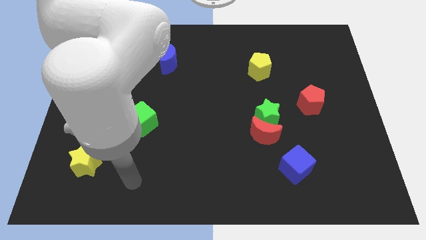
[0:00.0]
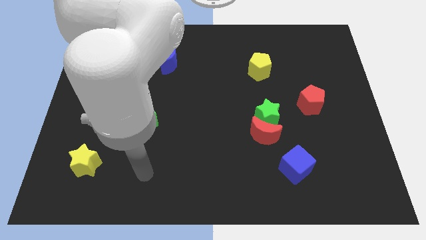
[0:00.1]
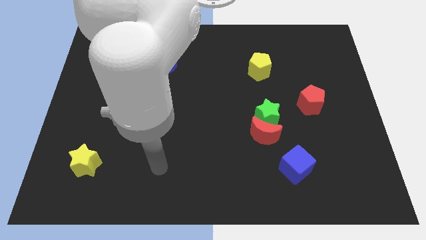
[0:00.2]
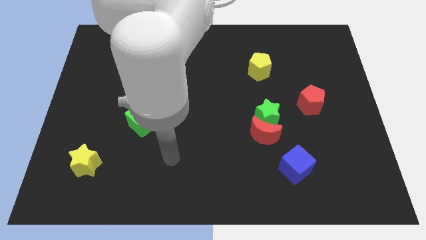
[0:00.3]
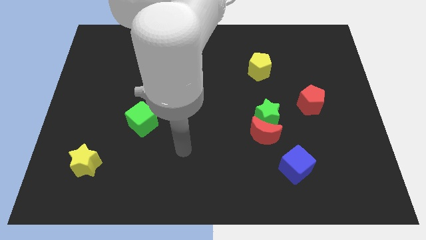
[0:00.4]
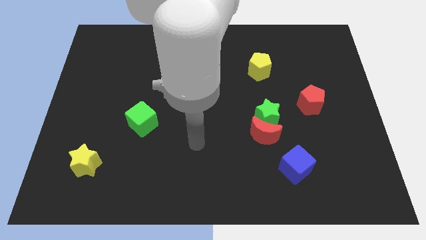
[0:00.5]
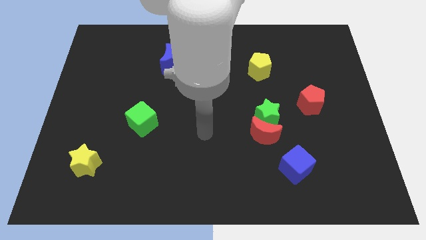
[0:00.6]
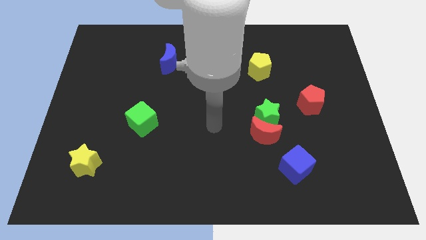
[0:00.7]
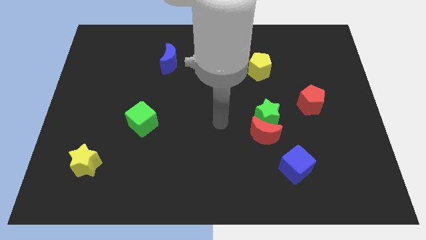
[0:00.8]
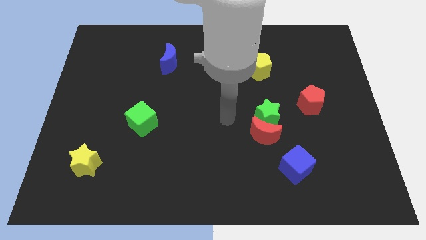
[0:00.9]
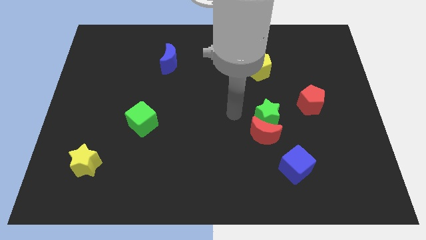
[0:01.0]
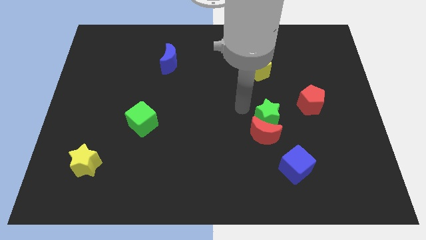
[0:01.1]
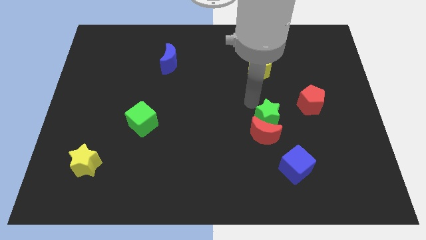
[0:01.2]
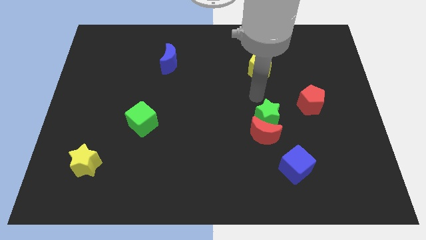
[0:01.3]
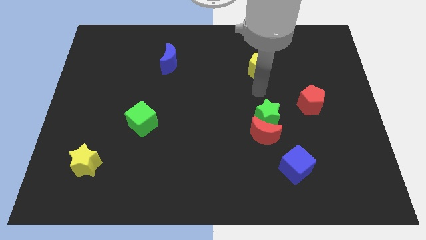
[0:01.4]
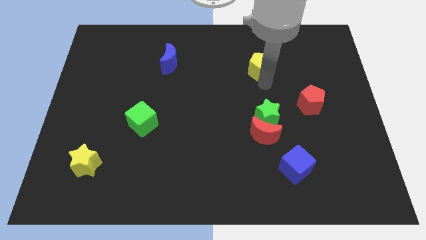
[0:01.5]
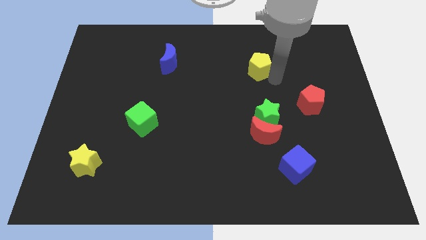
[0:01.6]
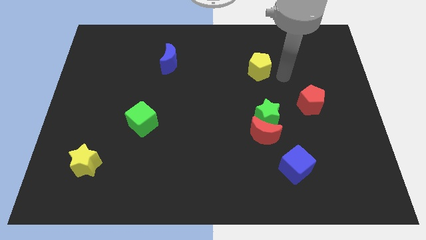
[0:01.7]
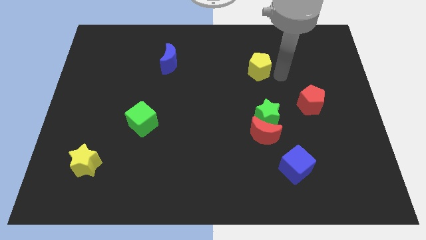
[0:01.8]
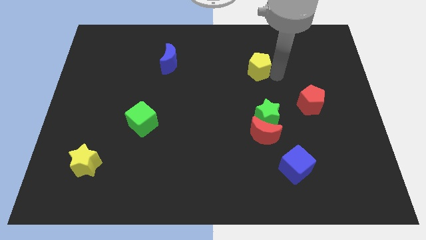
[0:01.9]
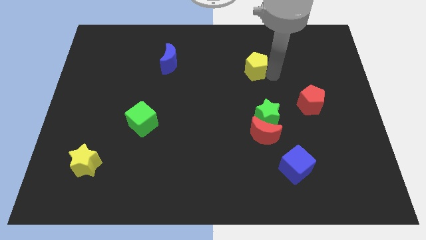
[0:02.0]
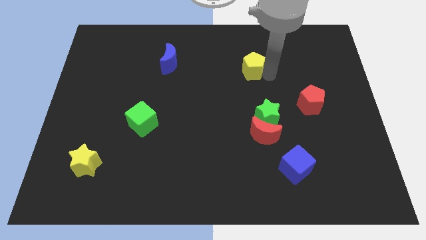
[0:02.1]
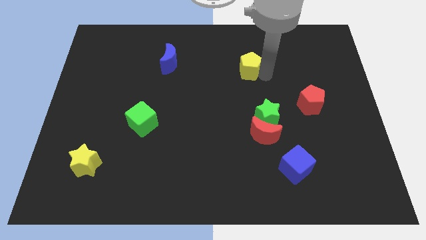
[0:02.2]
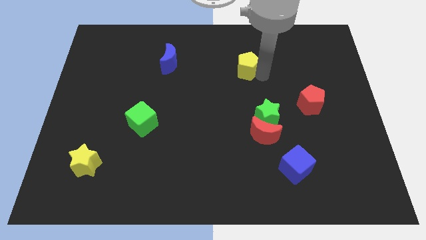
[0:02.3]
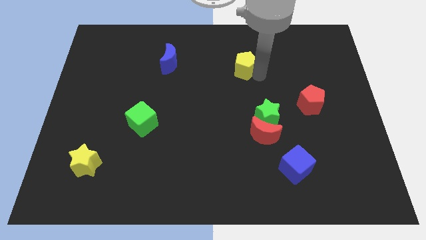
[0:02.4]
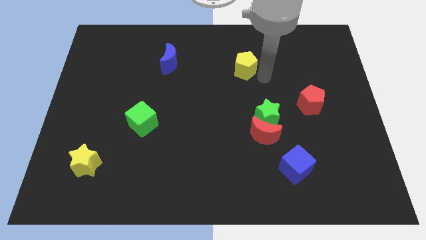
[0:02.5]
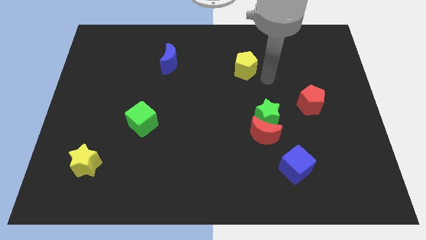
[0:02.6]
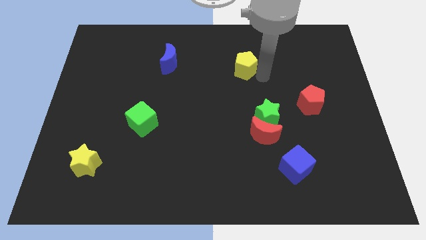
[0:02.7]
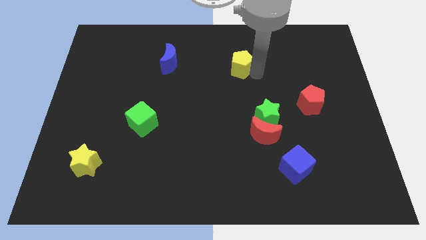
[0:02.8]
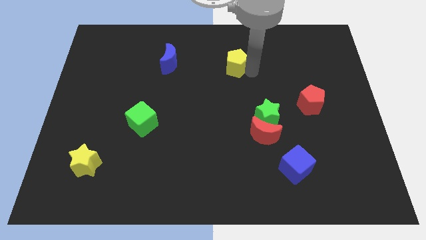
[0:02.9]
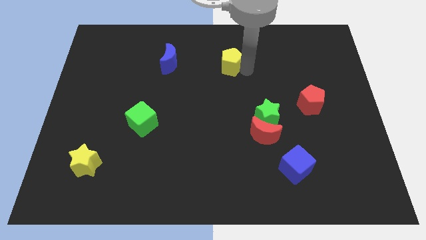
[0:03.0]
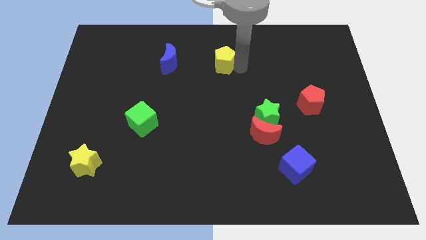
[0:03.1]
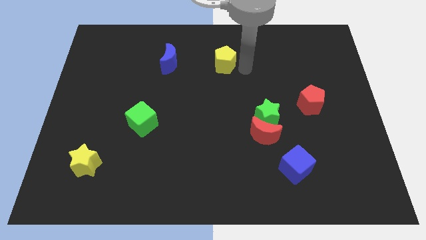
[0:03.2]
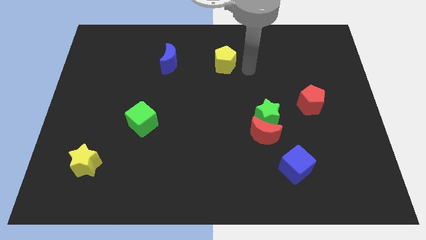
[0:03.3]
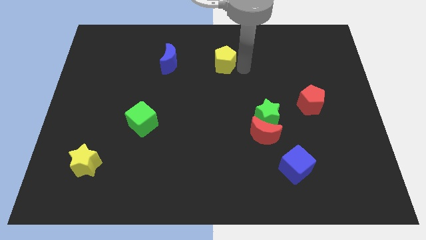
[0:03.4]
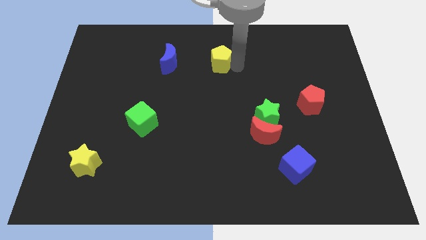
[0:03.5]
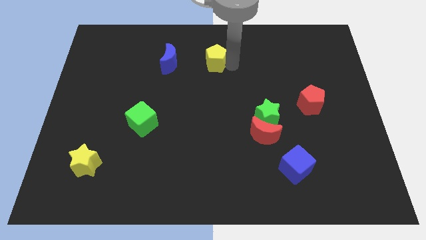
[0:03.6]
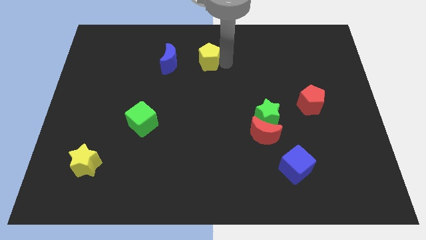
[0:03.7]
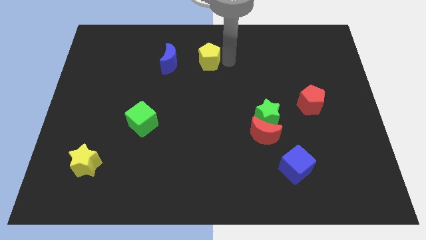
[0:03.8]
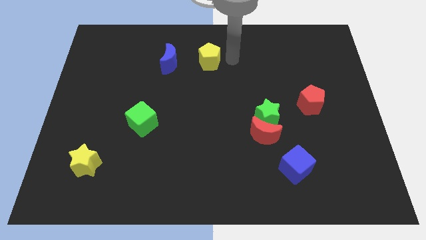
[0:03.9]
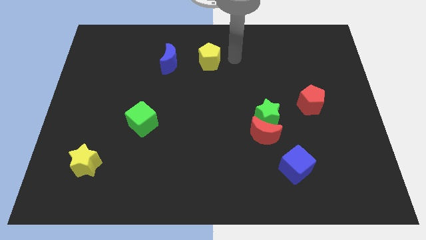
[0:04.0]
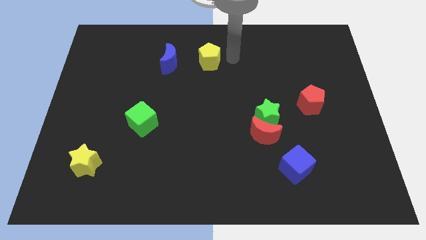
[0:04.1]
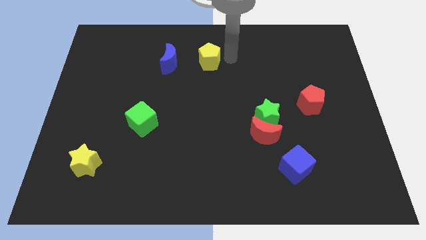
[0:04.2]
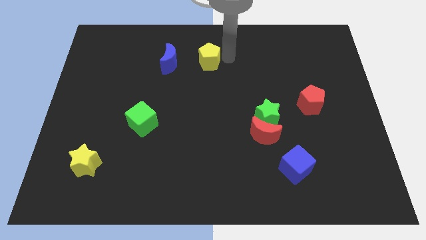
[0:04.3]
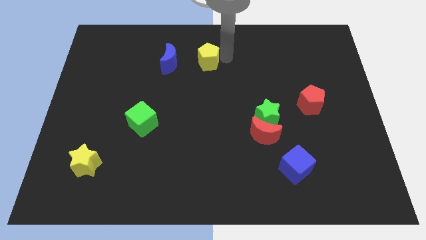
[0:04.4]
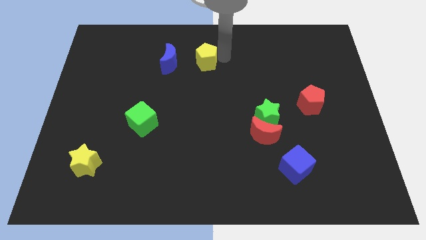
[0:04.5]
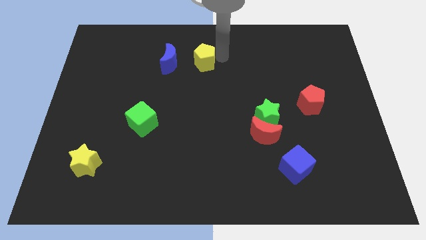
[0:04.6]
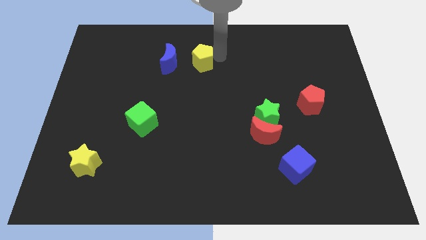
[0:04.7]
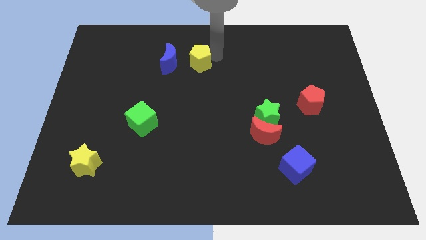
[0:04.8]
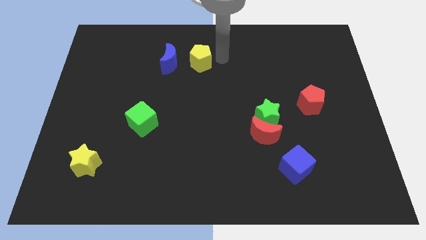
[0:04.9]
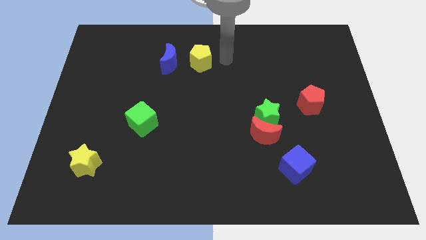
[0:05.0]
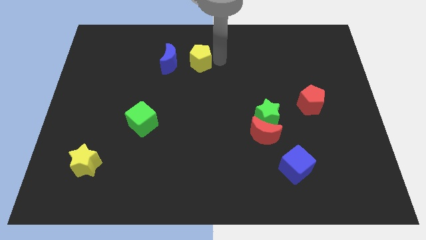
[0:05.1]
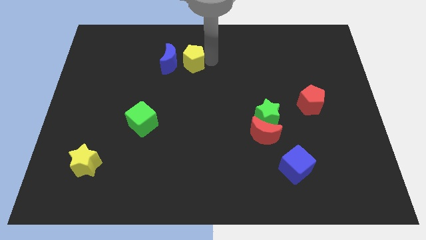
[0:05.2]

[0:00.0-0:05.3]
slide the yellow pentagon to the blue moon

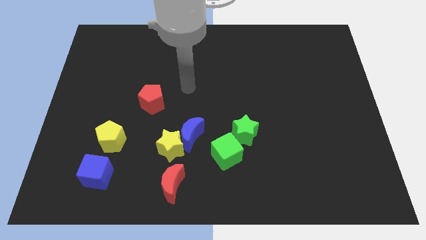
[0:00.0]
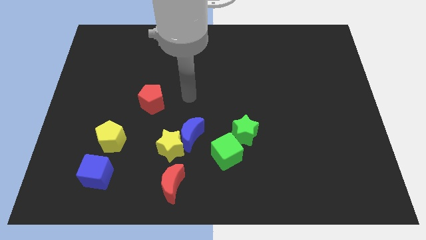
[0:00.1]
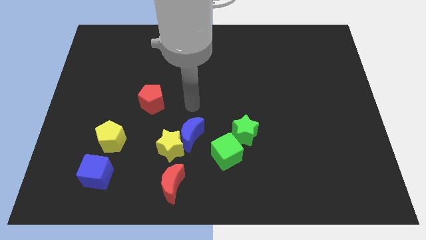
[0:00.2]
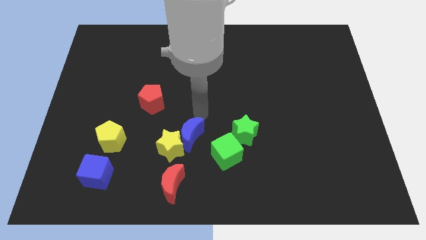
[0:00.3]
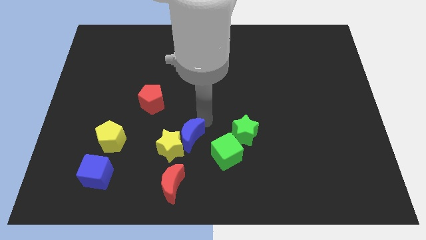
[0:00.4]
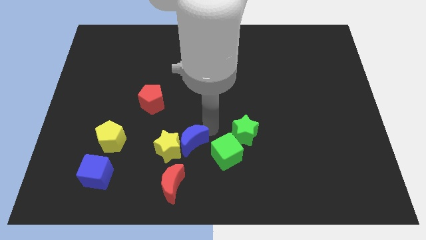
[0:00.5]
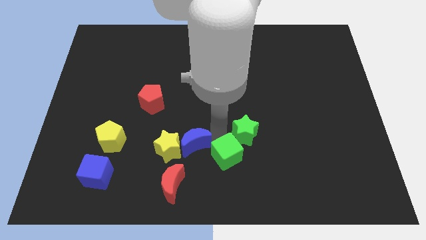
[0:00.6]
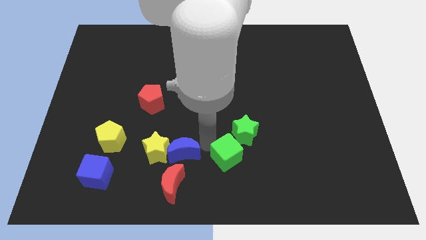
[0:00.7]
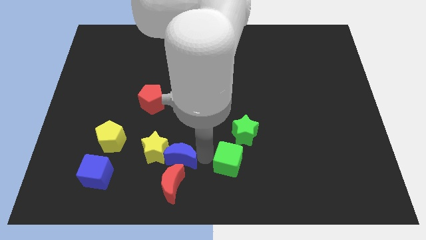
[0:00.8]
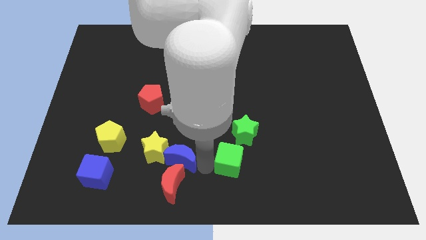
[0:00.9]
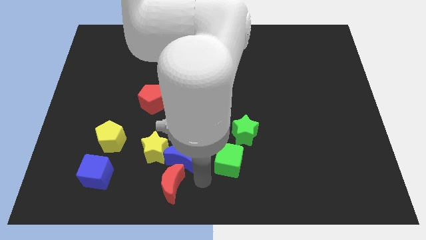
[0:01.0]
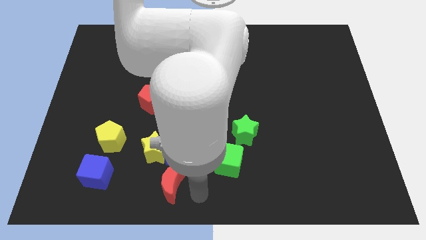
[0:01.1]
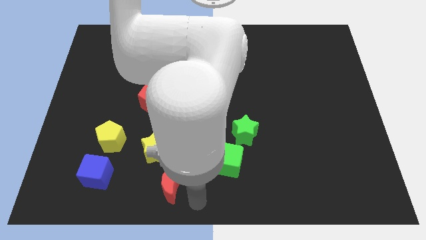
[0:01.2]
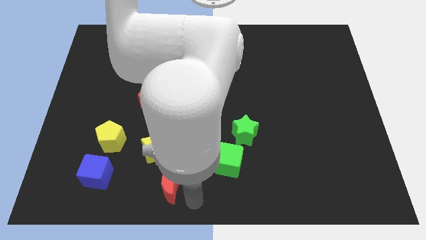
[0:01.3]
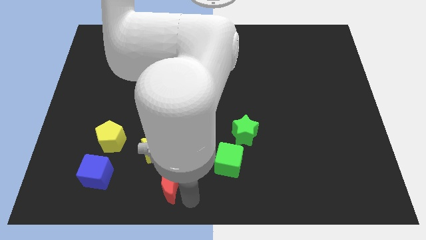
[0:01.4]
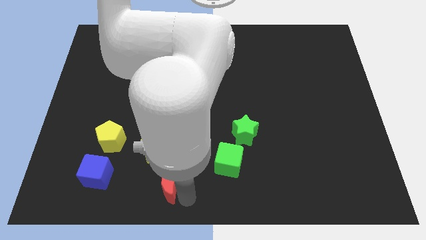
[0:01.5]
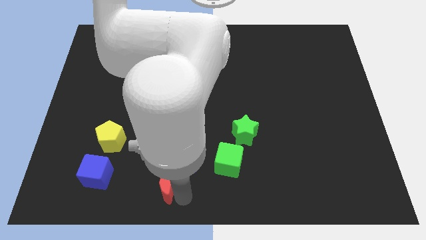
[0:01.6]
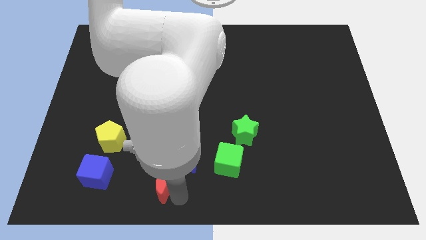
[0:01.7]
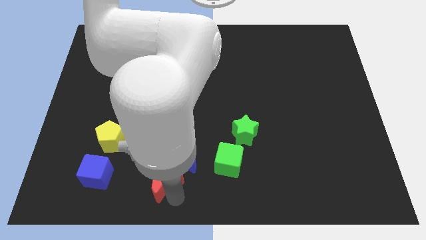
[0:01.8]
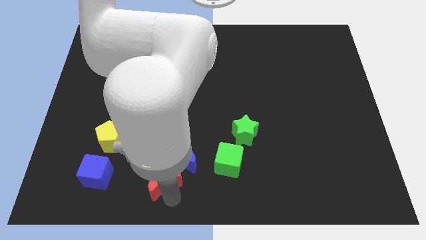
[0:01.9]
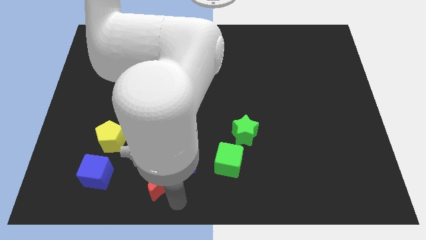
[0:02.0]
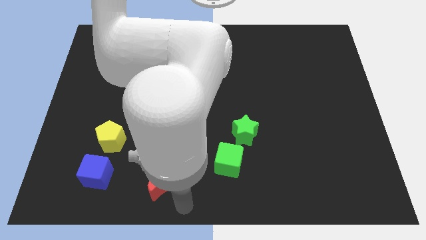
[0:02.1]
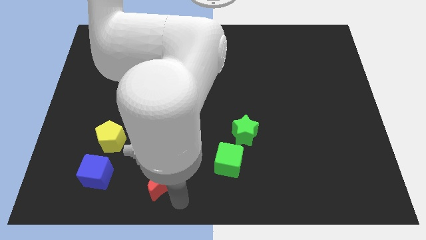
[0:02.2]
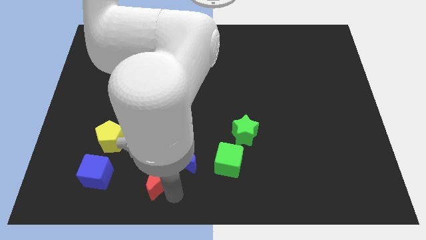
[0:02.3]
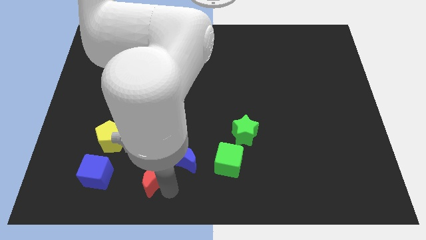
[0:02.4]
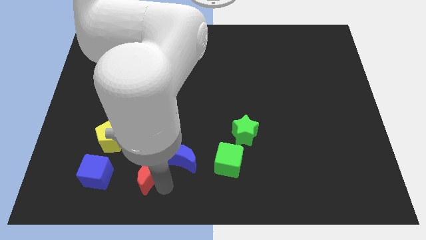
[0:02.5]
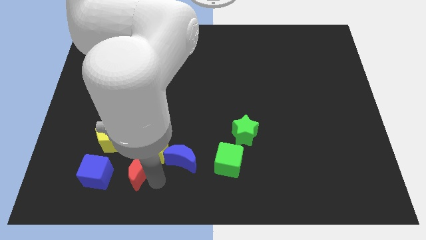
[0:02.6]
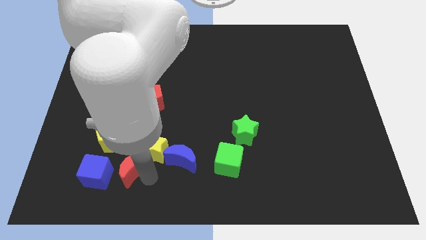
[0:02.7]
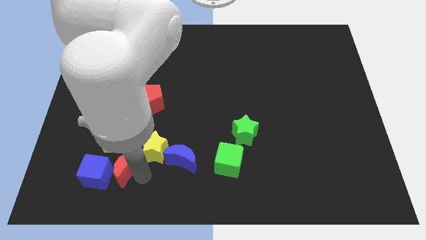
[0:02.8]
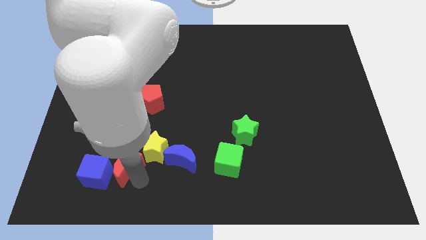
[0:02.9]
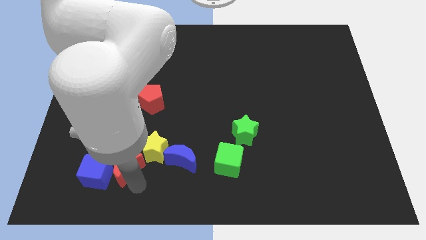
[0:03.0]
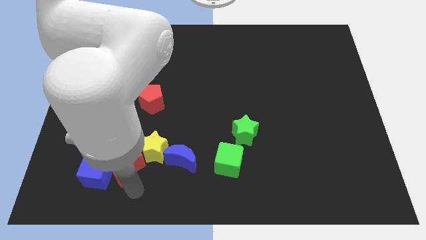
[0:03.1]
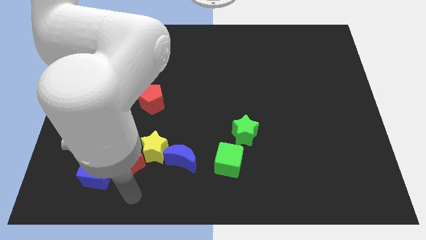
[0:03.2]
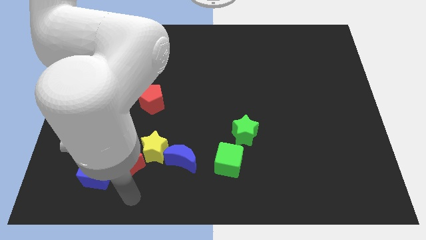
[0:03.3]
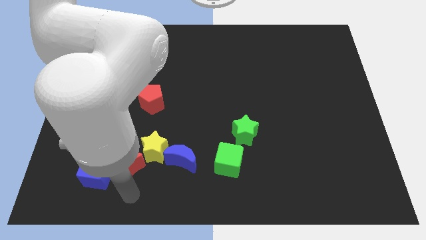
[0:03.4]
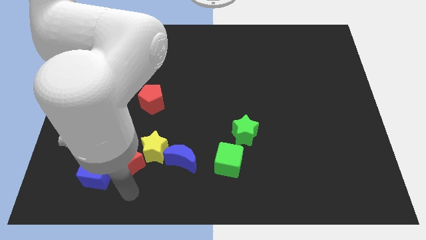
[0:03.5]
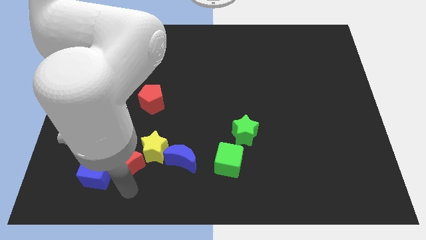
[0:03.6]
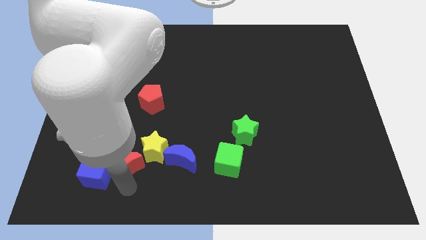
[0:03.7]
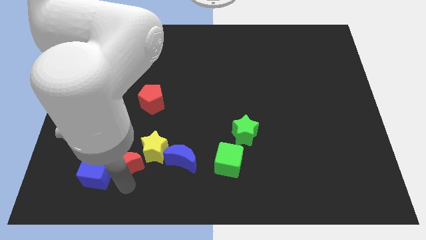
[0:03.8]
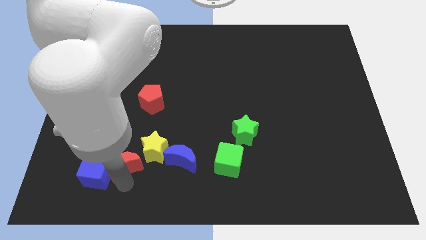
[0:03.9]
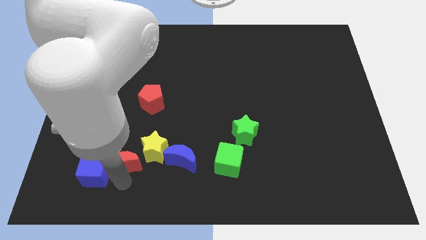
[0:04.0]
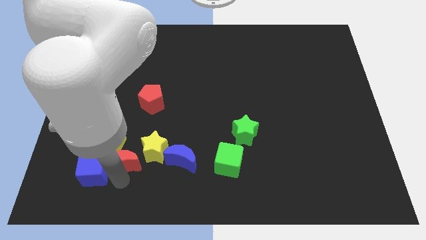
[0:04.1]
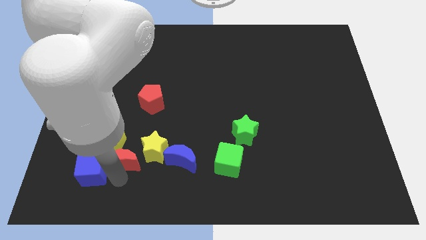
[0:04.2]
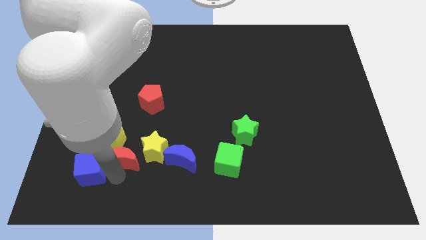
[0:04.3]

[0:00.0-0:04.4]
put the red moon towards the yellow pentagon
